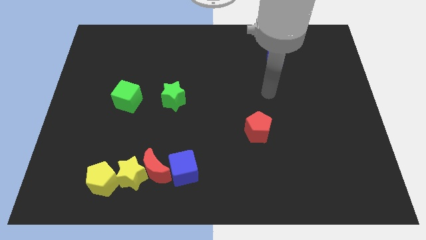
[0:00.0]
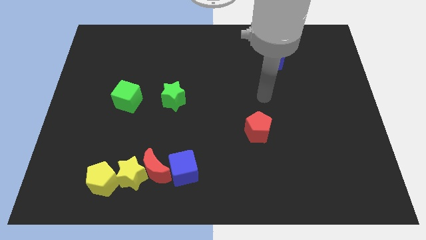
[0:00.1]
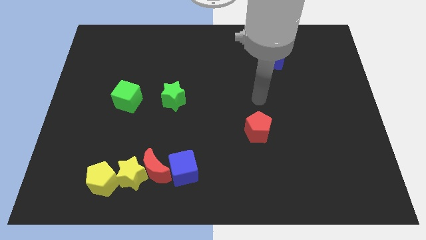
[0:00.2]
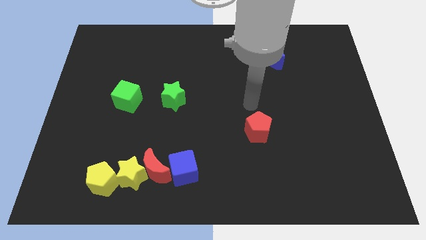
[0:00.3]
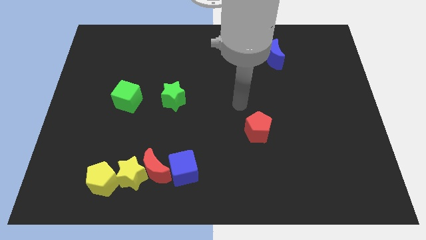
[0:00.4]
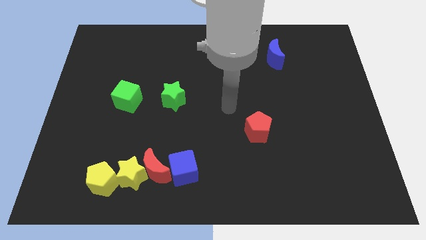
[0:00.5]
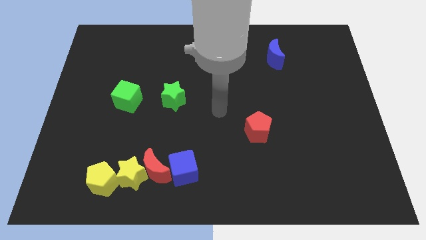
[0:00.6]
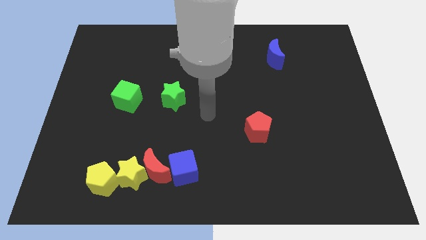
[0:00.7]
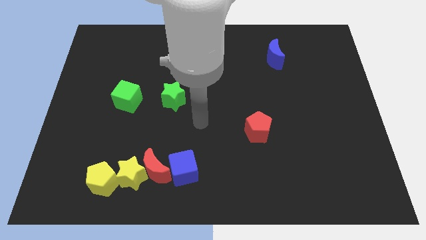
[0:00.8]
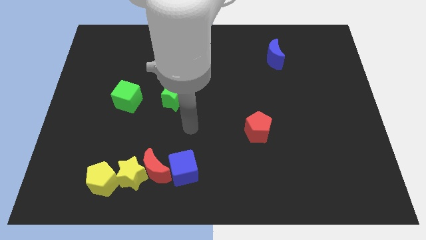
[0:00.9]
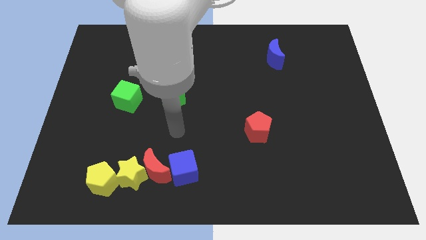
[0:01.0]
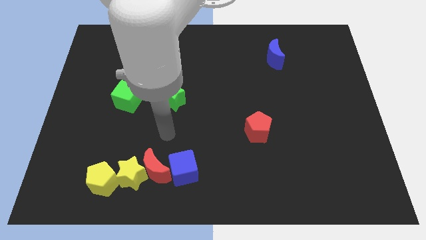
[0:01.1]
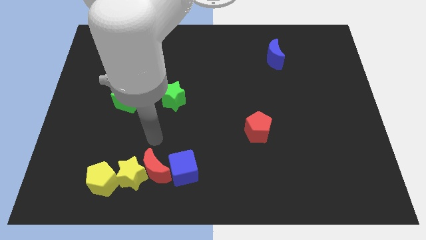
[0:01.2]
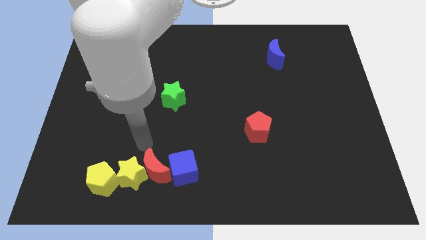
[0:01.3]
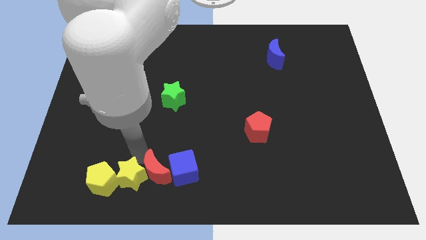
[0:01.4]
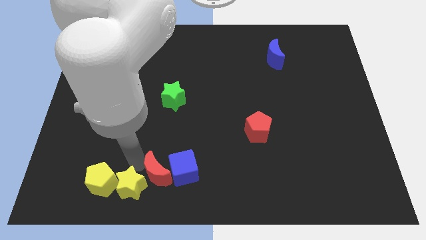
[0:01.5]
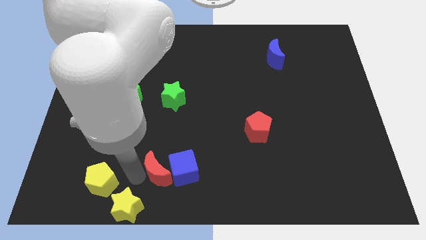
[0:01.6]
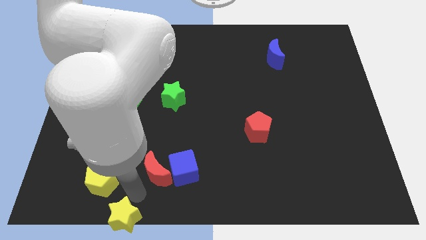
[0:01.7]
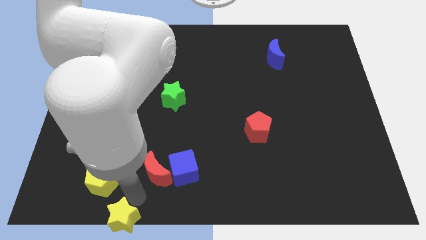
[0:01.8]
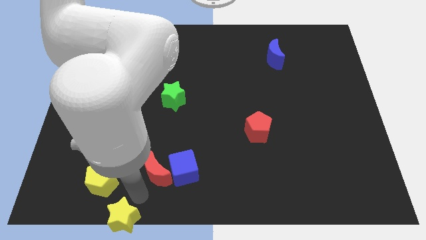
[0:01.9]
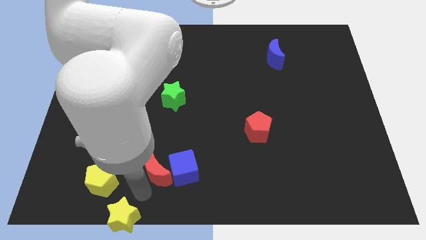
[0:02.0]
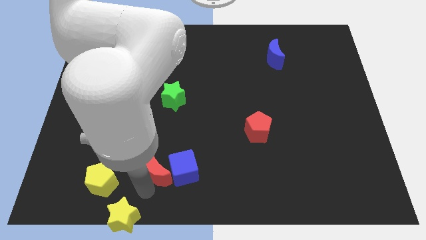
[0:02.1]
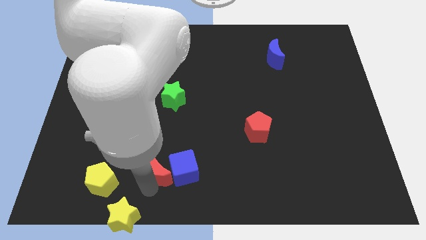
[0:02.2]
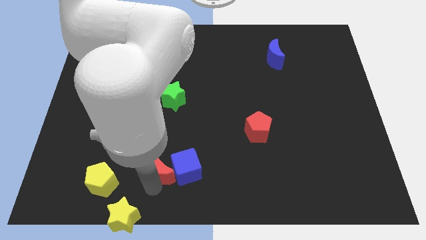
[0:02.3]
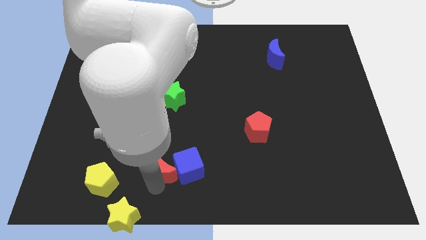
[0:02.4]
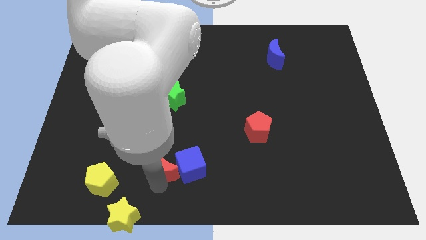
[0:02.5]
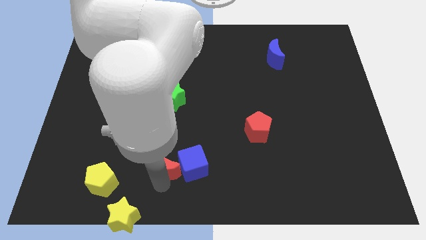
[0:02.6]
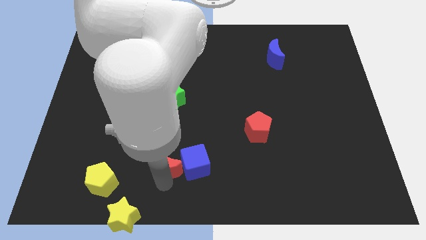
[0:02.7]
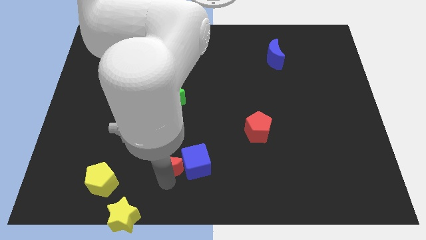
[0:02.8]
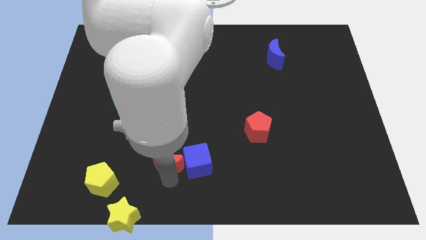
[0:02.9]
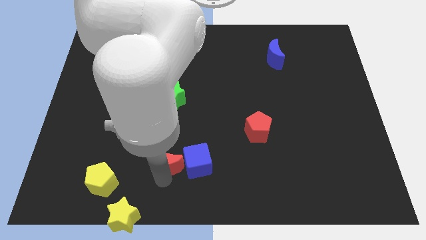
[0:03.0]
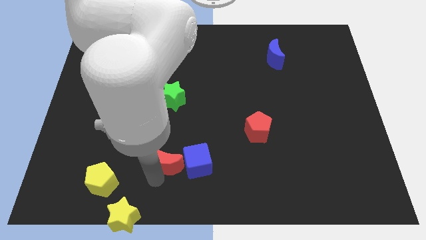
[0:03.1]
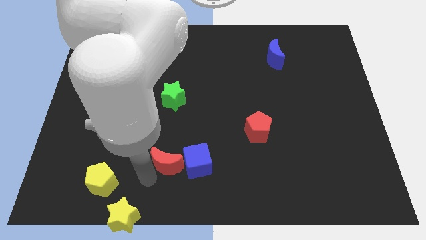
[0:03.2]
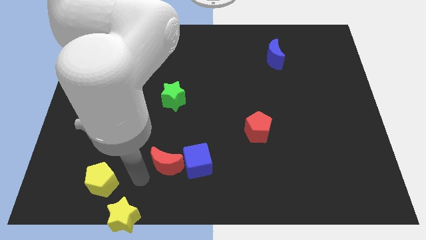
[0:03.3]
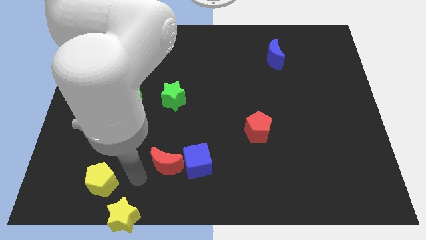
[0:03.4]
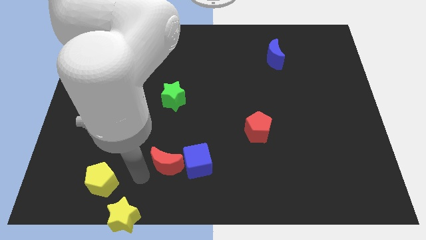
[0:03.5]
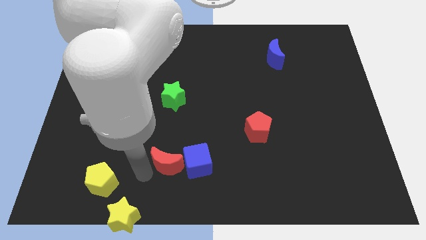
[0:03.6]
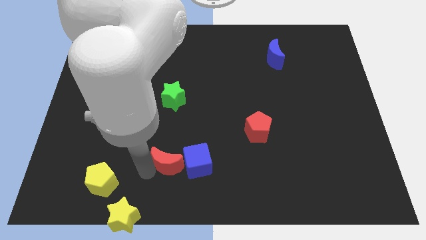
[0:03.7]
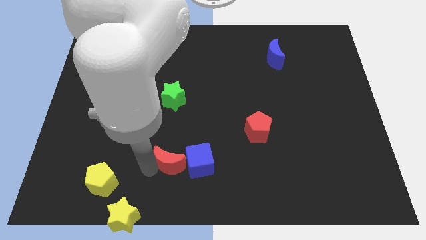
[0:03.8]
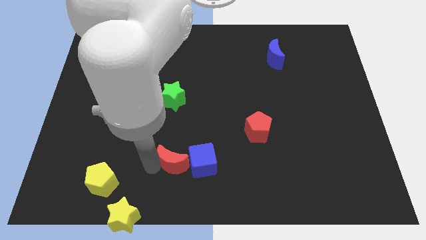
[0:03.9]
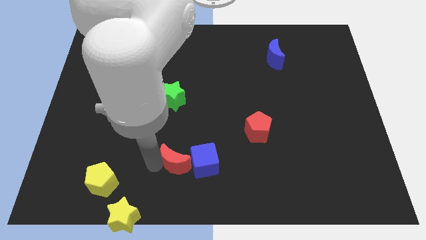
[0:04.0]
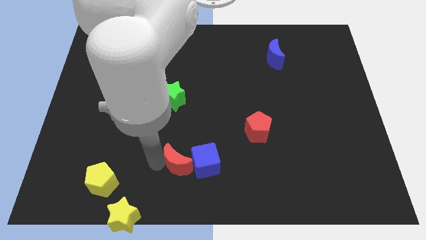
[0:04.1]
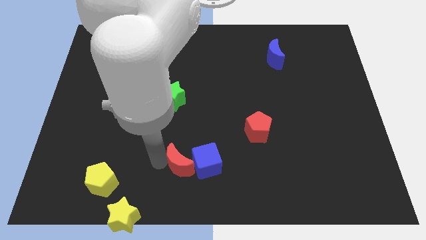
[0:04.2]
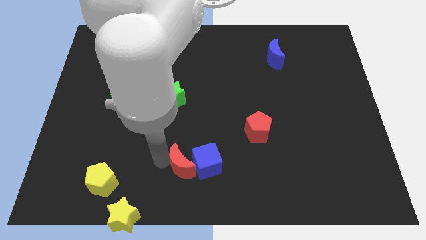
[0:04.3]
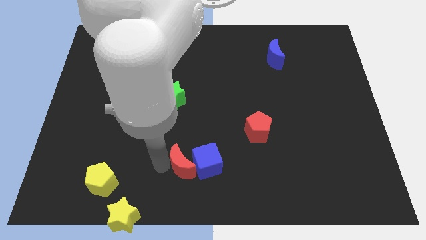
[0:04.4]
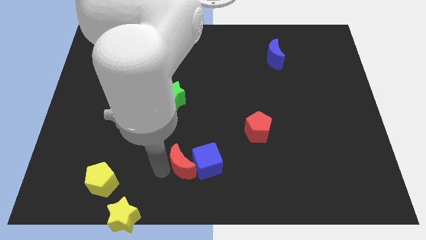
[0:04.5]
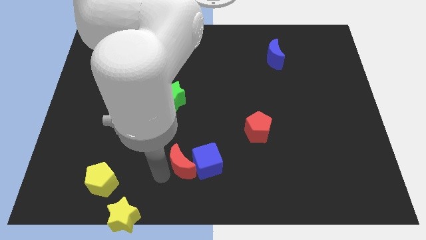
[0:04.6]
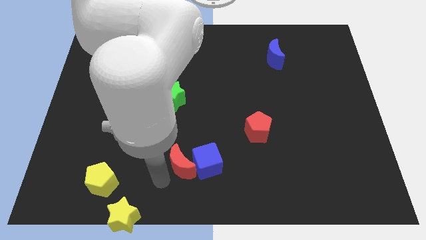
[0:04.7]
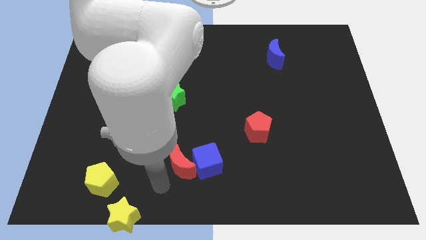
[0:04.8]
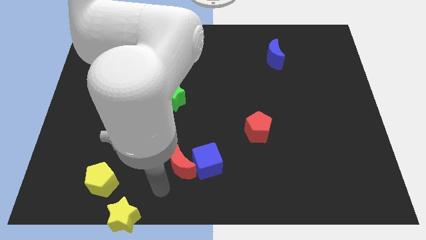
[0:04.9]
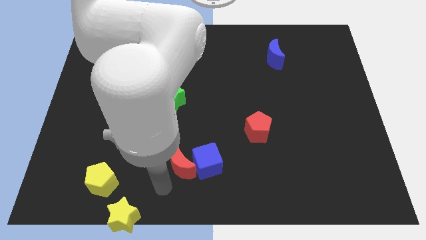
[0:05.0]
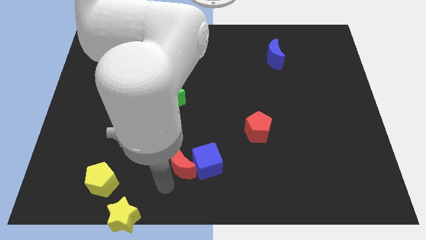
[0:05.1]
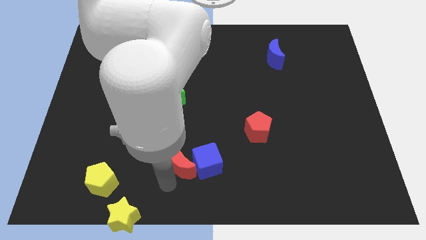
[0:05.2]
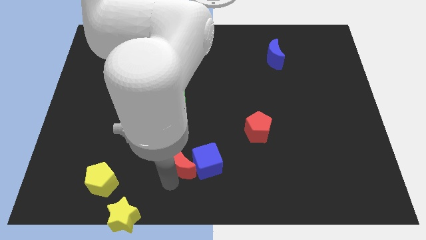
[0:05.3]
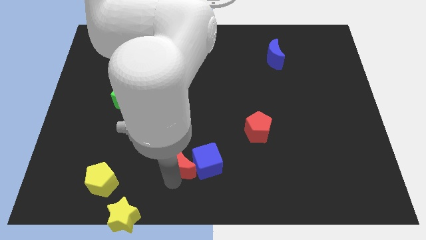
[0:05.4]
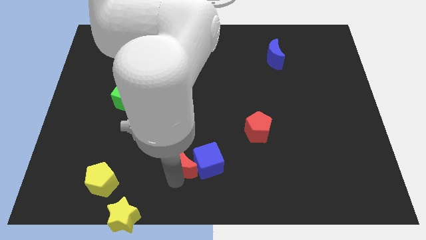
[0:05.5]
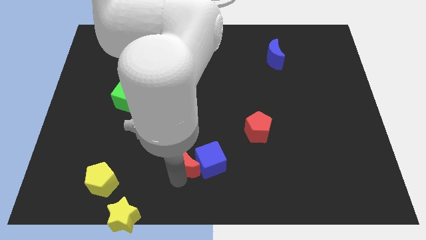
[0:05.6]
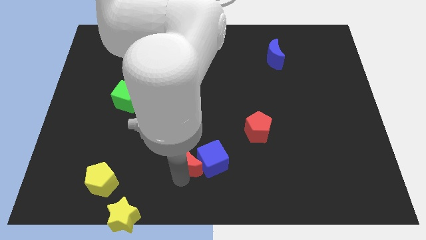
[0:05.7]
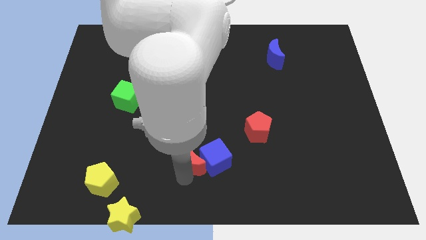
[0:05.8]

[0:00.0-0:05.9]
push the red moon to the right somewhat

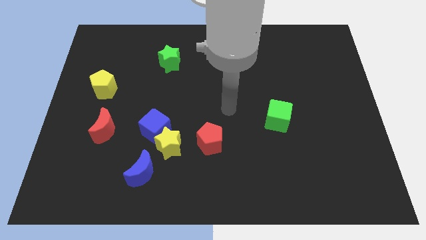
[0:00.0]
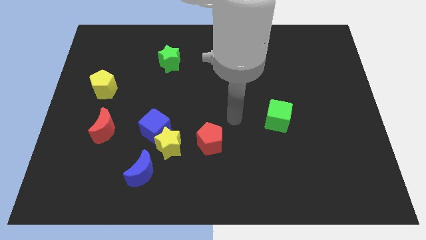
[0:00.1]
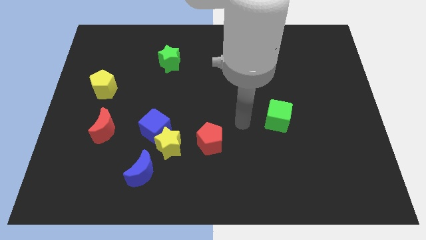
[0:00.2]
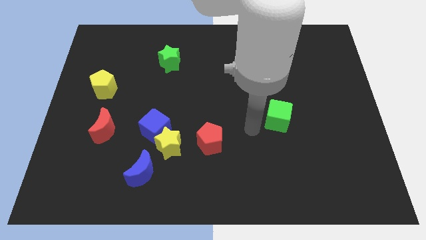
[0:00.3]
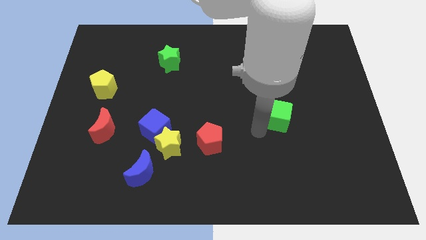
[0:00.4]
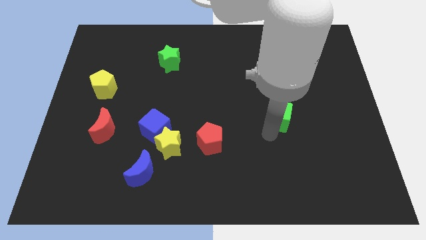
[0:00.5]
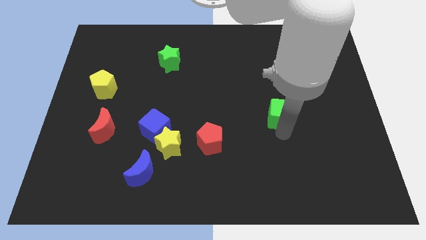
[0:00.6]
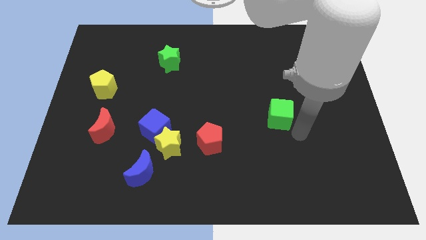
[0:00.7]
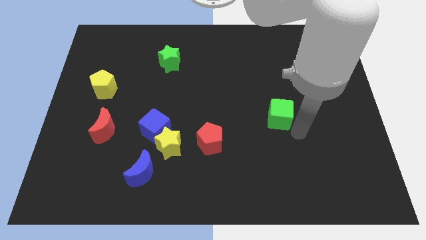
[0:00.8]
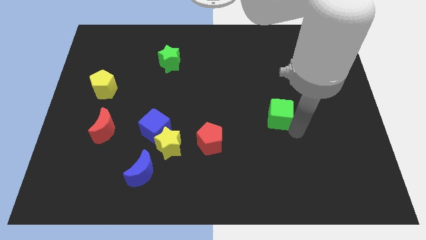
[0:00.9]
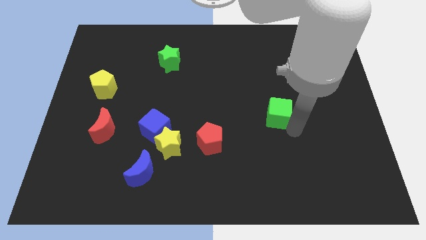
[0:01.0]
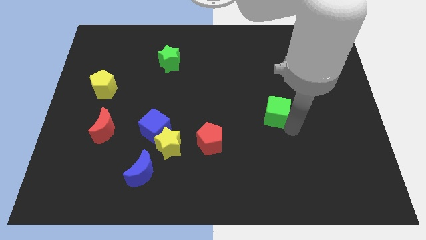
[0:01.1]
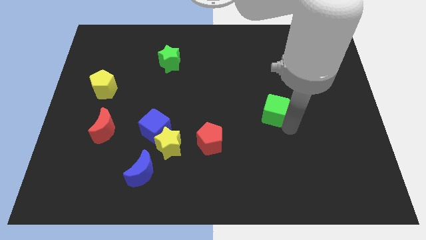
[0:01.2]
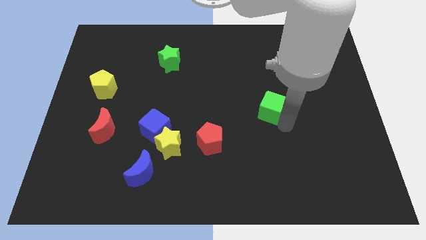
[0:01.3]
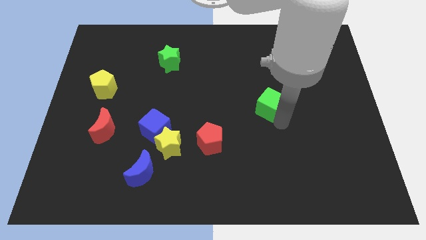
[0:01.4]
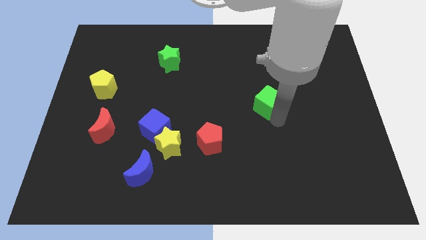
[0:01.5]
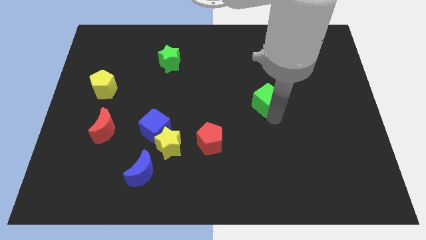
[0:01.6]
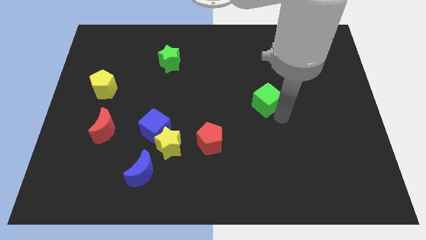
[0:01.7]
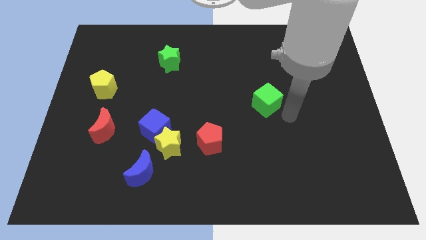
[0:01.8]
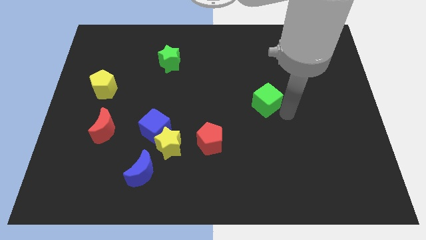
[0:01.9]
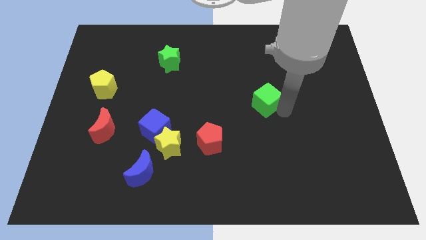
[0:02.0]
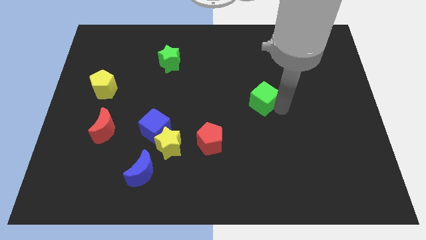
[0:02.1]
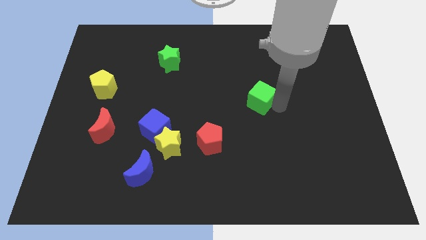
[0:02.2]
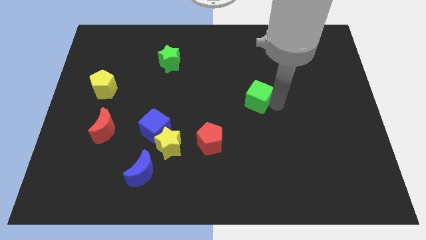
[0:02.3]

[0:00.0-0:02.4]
push the green cube diagonally upwards and left a bit
